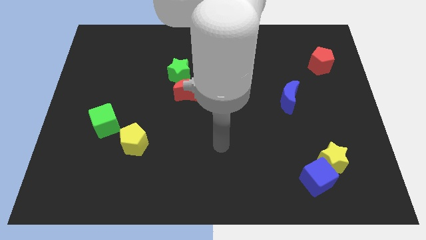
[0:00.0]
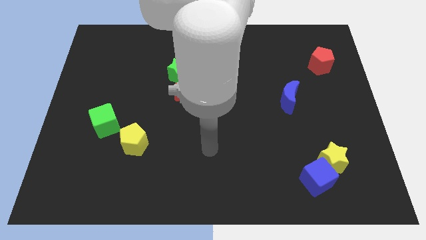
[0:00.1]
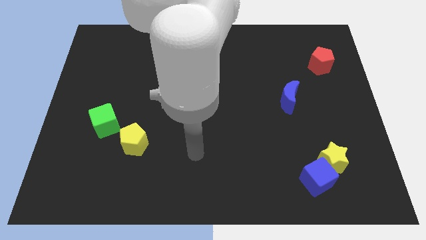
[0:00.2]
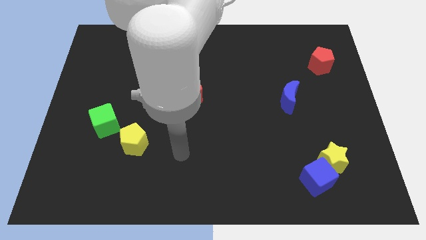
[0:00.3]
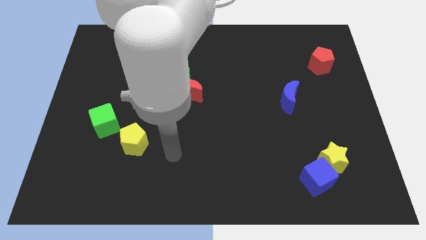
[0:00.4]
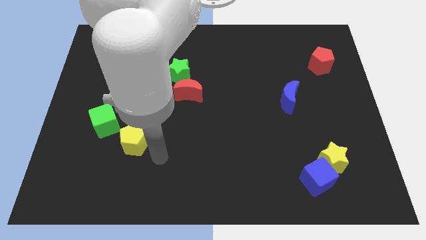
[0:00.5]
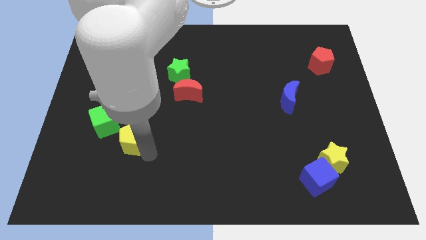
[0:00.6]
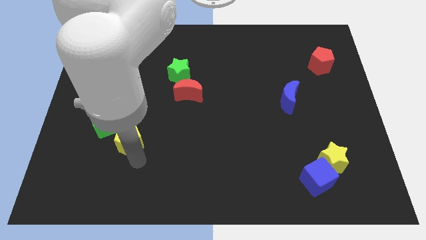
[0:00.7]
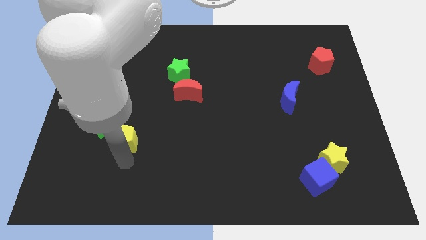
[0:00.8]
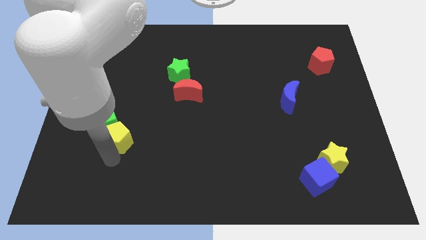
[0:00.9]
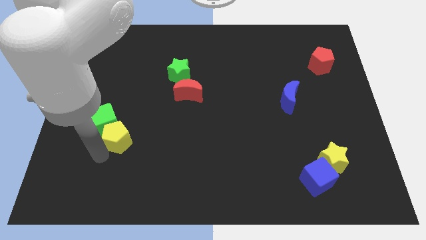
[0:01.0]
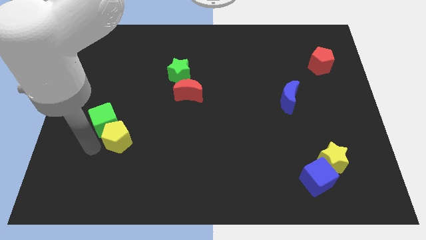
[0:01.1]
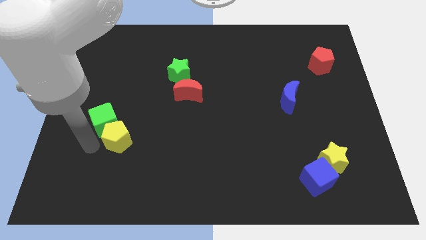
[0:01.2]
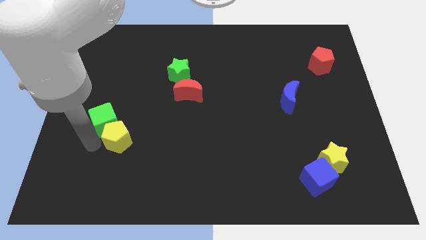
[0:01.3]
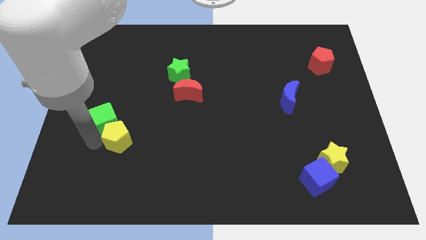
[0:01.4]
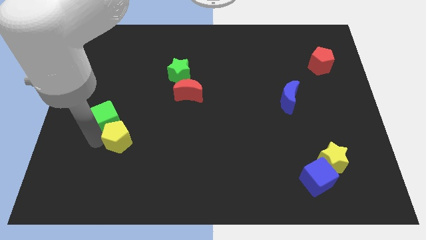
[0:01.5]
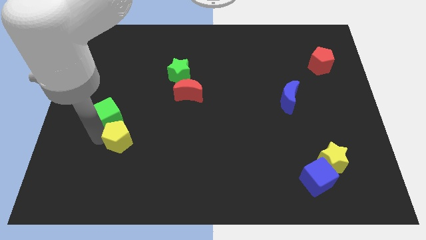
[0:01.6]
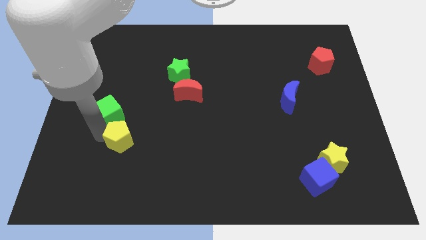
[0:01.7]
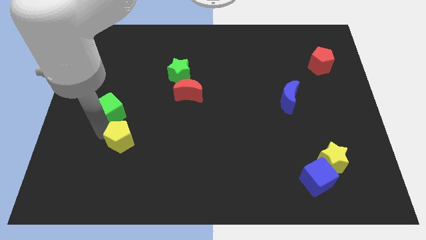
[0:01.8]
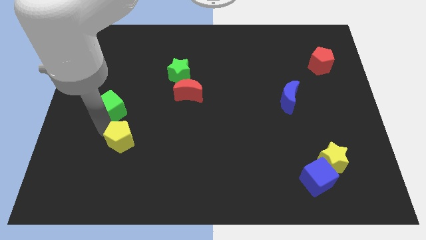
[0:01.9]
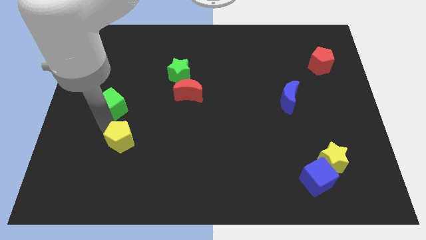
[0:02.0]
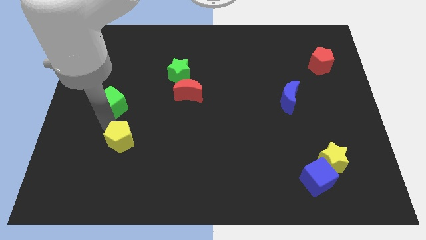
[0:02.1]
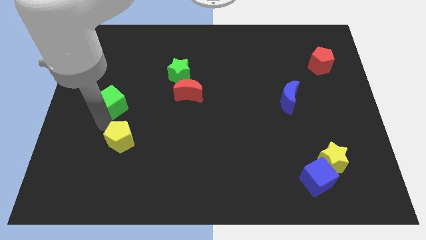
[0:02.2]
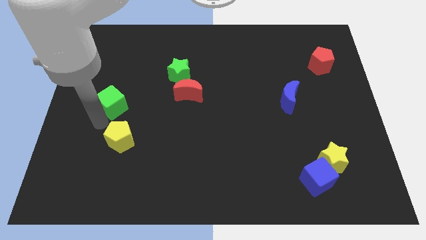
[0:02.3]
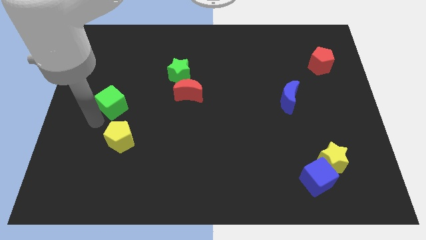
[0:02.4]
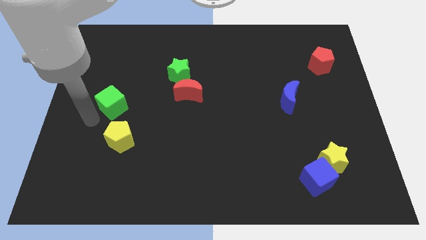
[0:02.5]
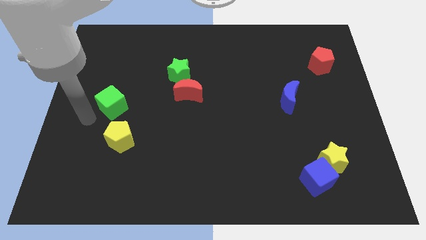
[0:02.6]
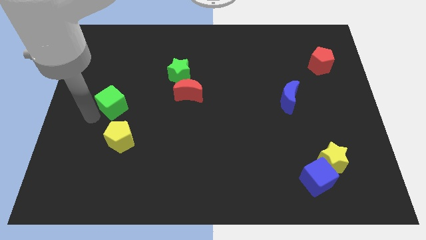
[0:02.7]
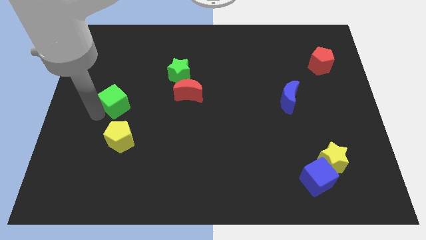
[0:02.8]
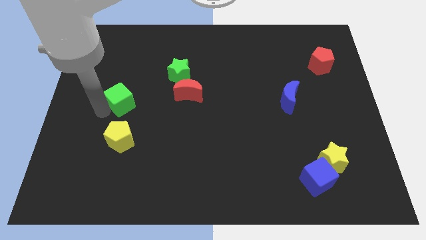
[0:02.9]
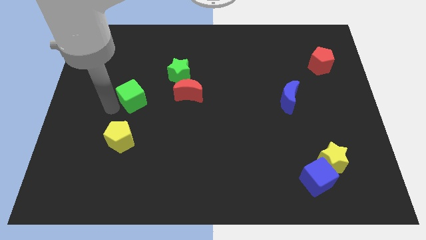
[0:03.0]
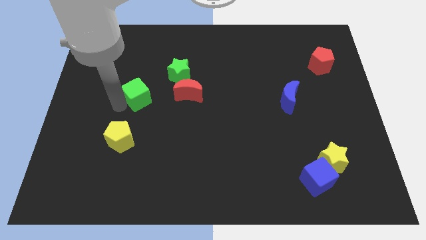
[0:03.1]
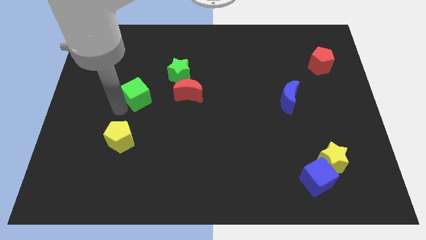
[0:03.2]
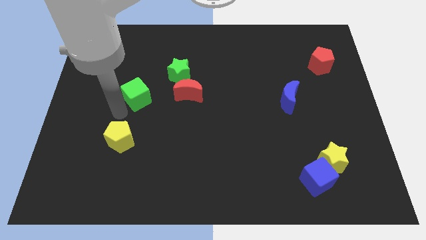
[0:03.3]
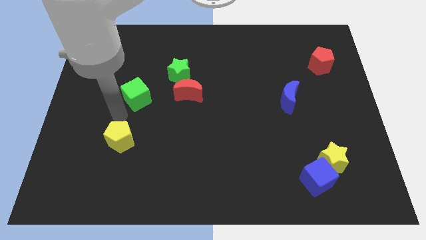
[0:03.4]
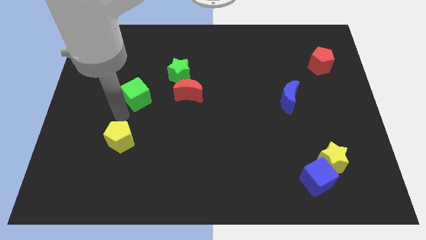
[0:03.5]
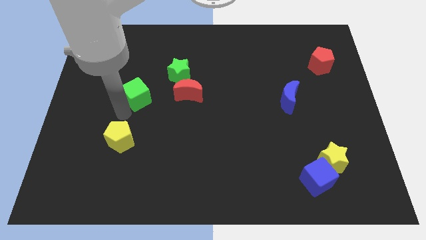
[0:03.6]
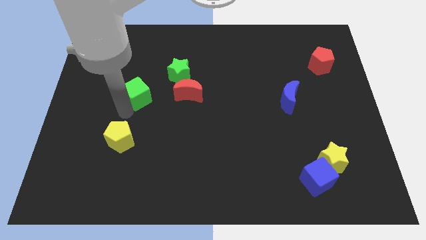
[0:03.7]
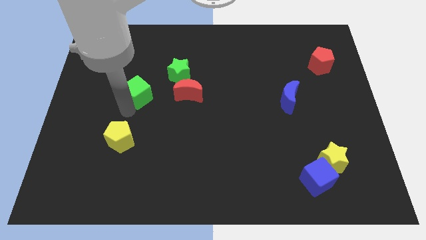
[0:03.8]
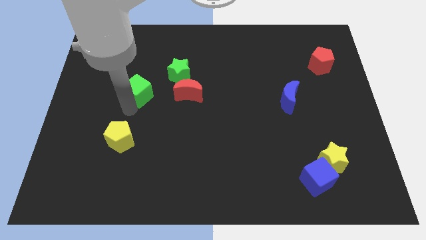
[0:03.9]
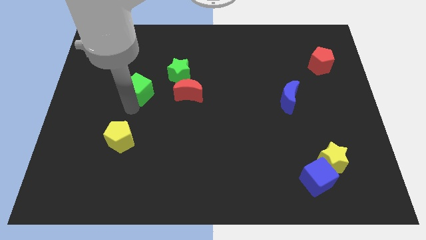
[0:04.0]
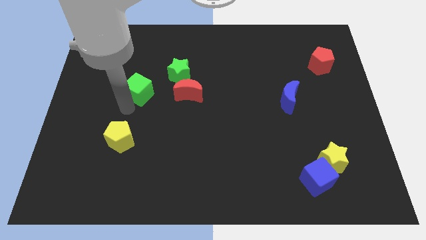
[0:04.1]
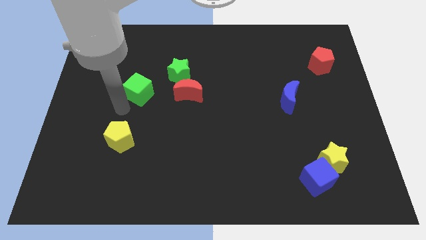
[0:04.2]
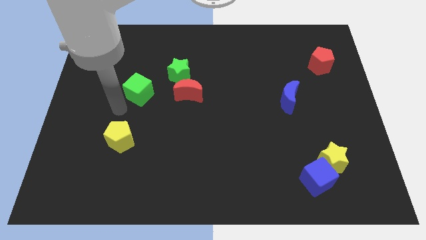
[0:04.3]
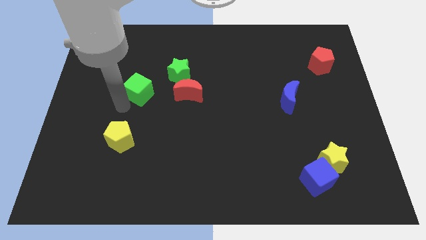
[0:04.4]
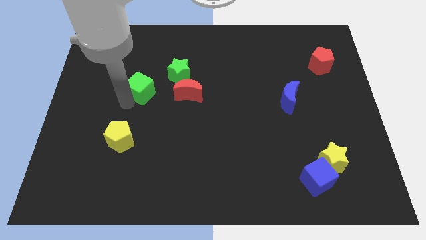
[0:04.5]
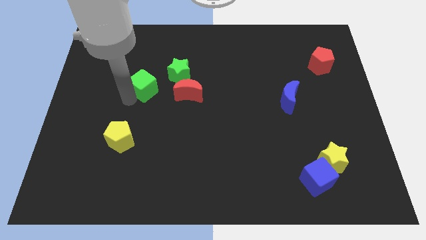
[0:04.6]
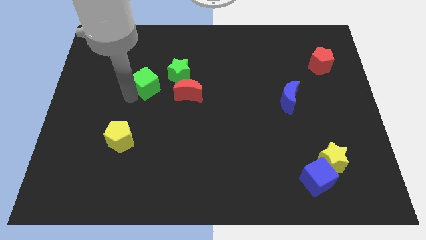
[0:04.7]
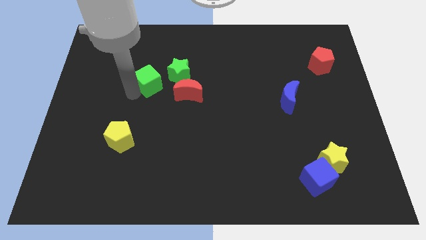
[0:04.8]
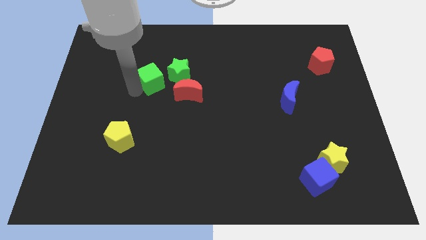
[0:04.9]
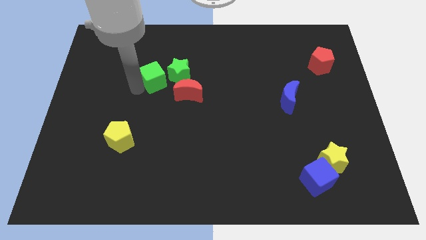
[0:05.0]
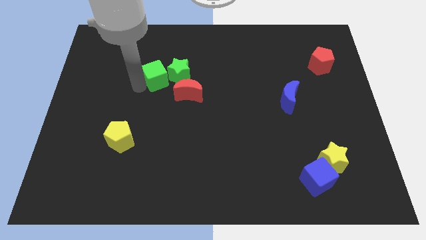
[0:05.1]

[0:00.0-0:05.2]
slide the green cube close to the green star

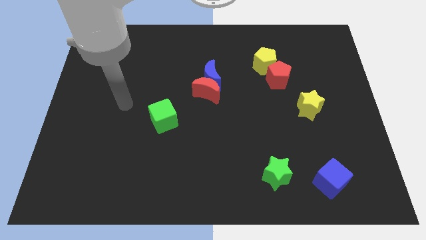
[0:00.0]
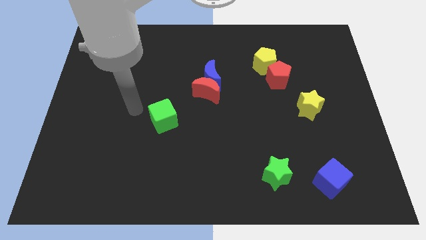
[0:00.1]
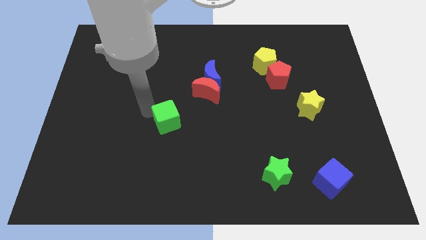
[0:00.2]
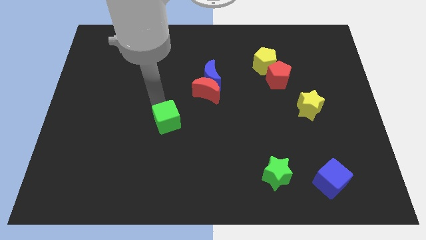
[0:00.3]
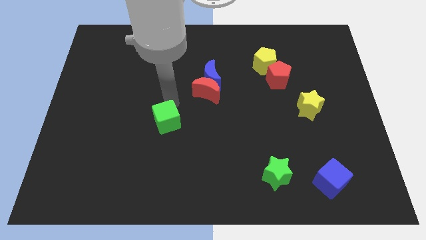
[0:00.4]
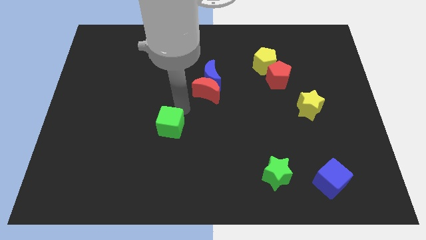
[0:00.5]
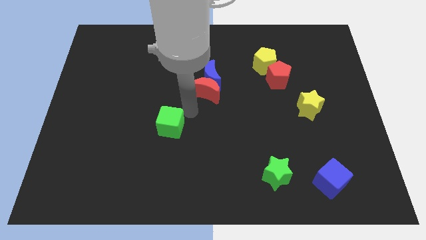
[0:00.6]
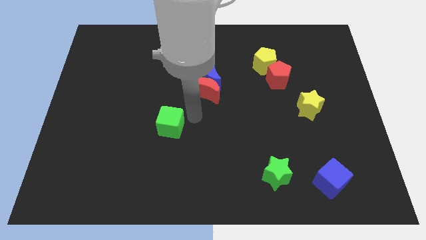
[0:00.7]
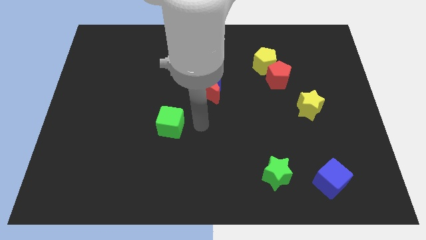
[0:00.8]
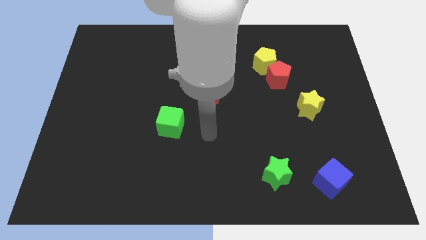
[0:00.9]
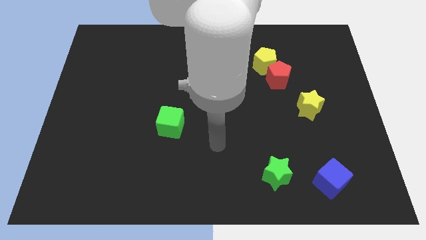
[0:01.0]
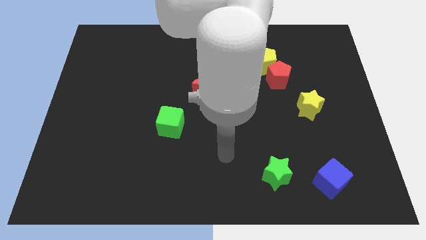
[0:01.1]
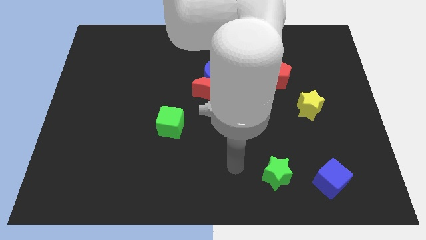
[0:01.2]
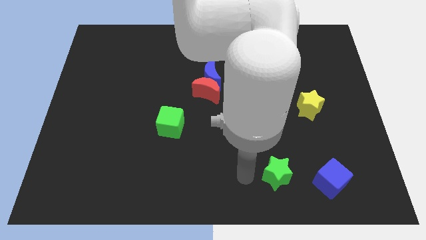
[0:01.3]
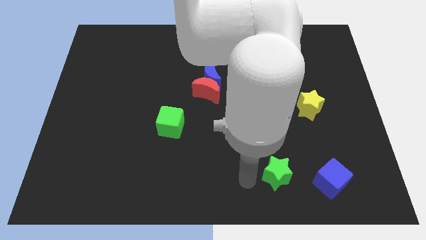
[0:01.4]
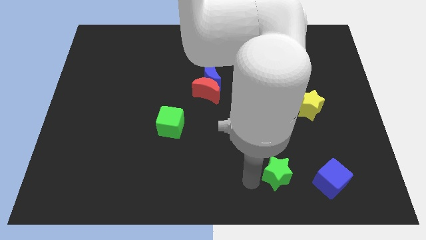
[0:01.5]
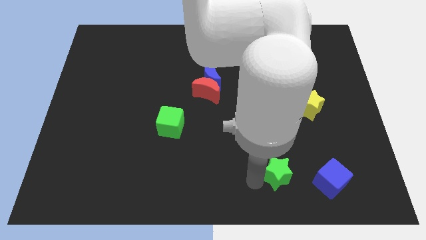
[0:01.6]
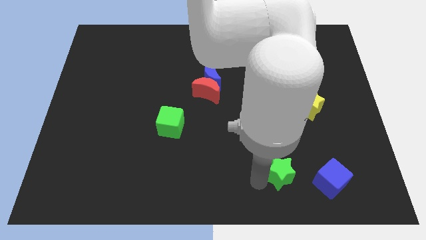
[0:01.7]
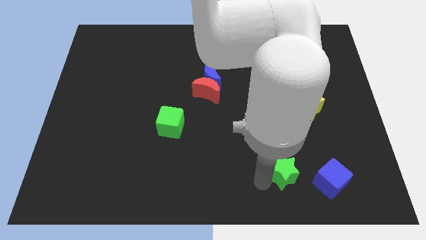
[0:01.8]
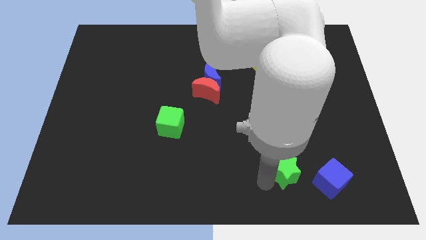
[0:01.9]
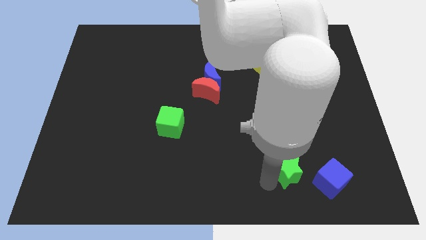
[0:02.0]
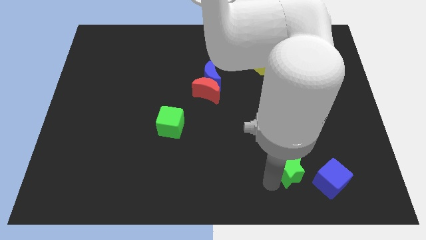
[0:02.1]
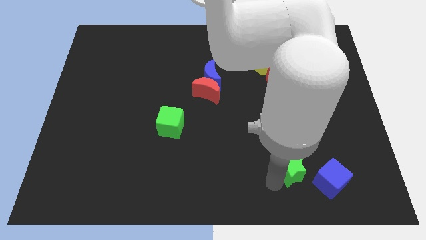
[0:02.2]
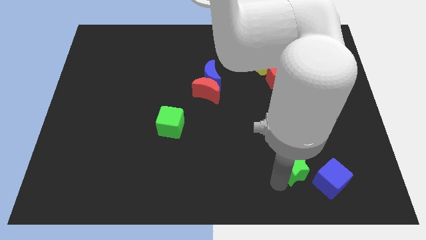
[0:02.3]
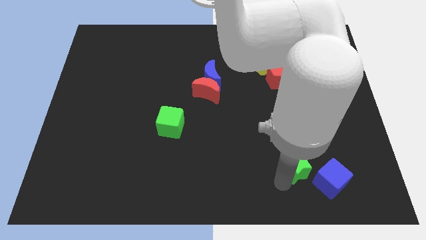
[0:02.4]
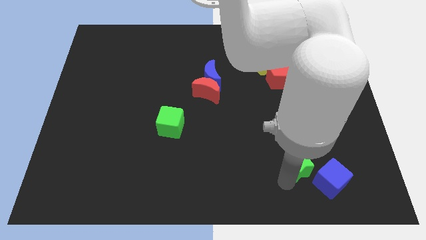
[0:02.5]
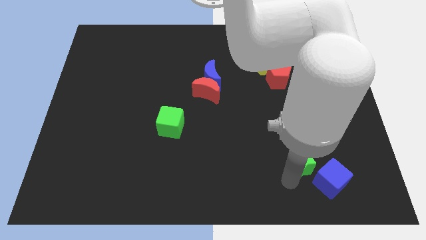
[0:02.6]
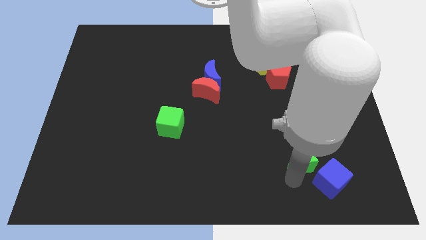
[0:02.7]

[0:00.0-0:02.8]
put the green star towards the blue cube
